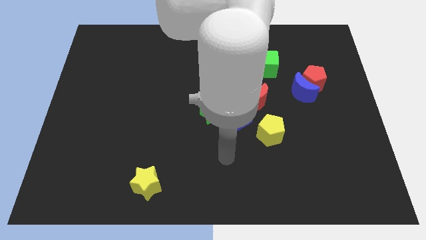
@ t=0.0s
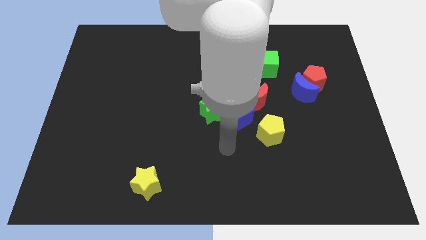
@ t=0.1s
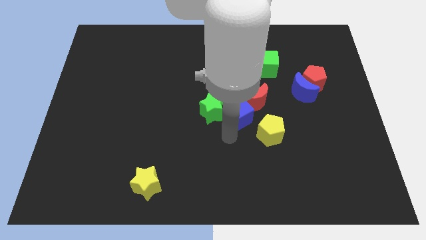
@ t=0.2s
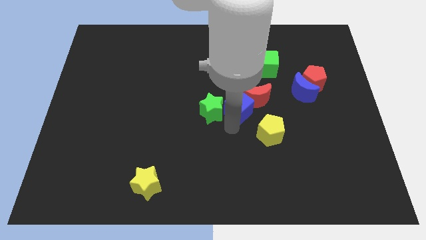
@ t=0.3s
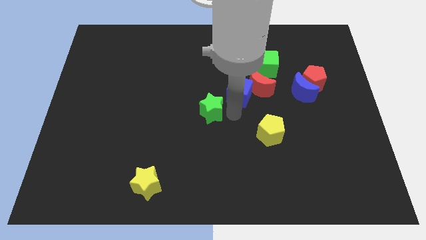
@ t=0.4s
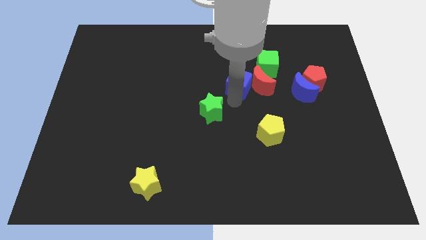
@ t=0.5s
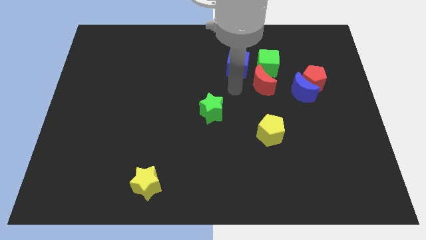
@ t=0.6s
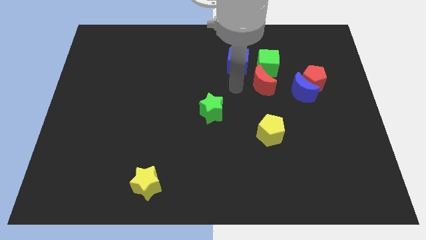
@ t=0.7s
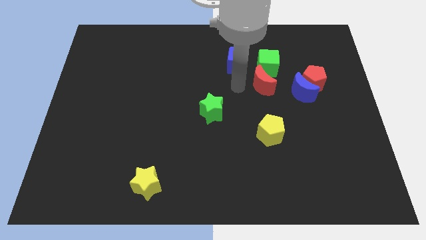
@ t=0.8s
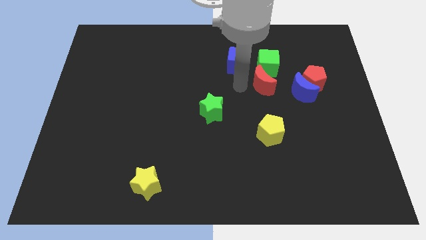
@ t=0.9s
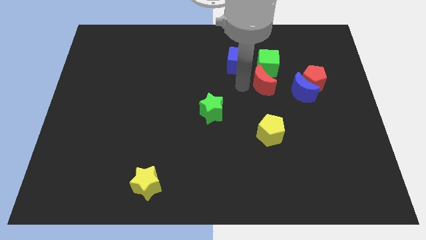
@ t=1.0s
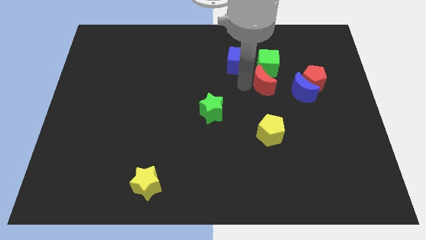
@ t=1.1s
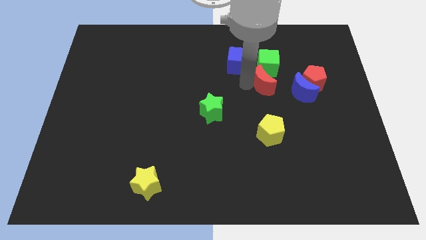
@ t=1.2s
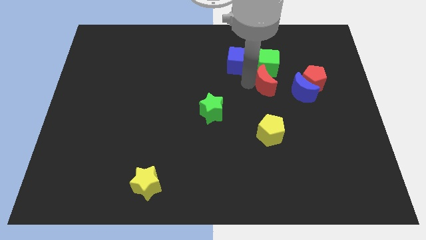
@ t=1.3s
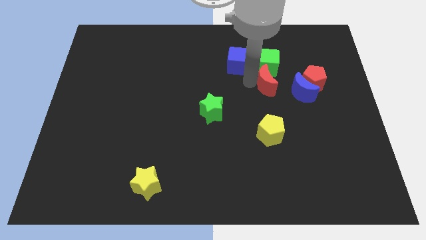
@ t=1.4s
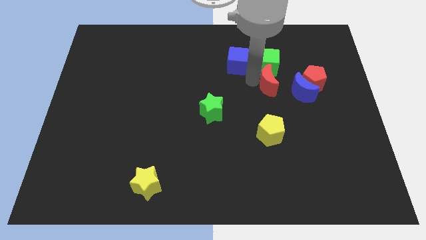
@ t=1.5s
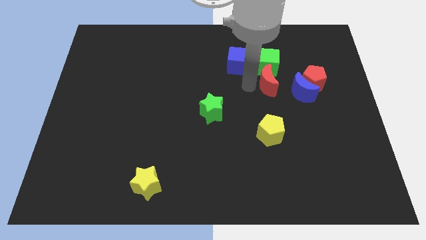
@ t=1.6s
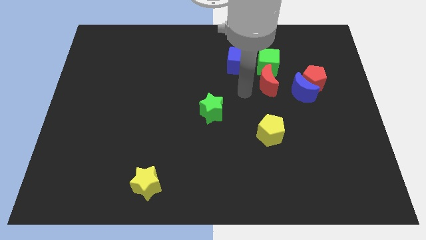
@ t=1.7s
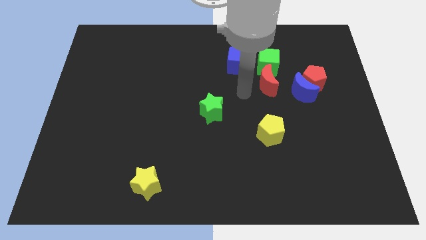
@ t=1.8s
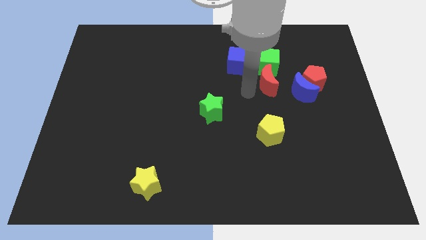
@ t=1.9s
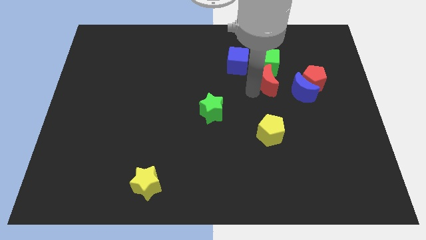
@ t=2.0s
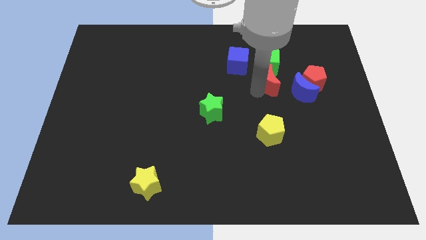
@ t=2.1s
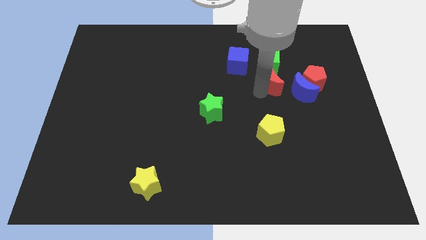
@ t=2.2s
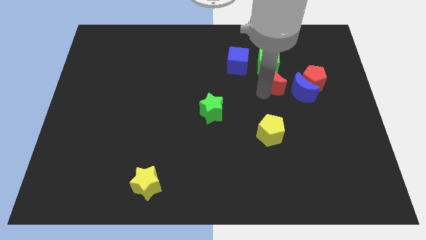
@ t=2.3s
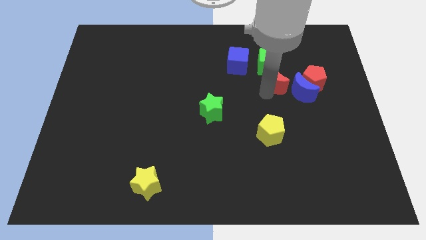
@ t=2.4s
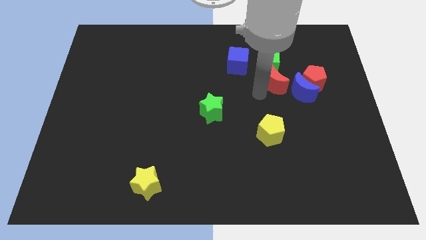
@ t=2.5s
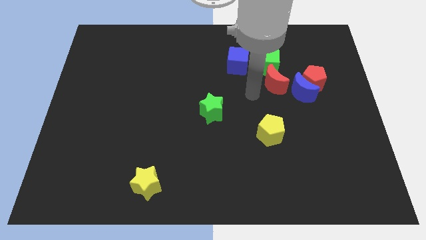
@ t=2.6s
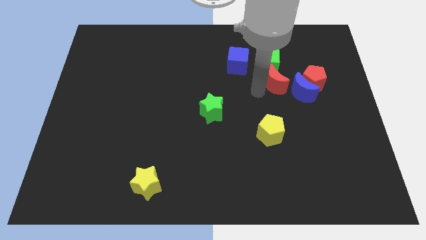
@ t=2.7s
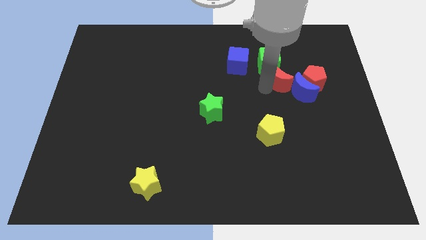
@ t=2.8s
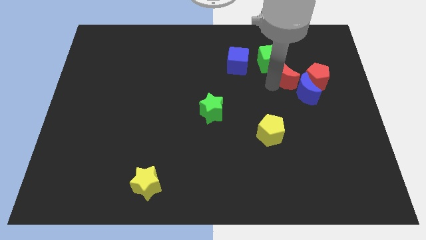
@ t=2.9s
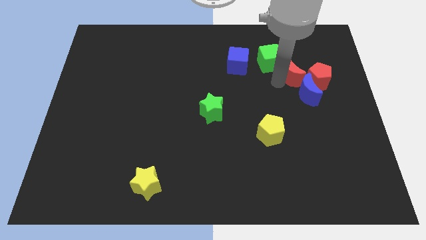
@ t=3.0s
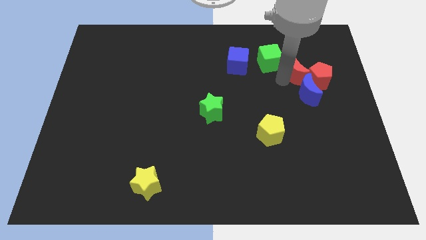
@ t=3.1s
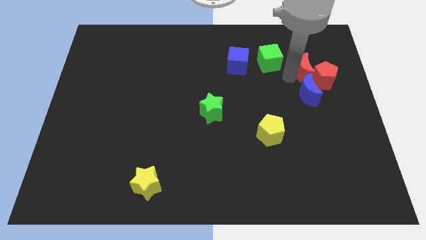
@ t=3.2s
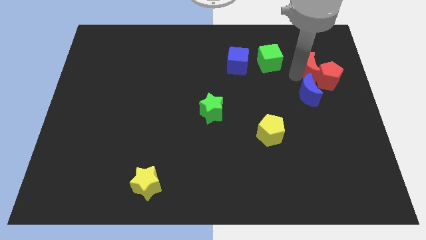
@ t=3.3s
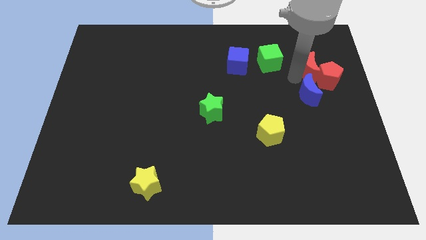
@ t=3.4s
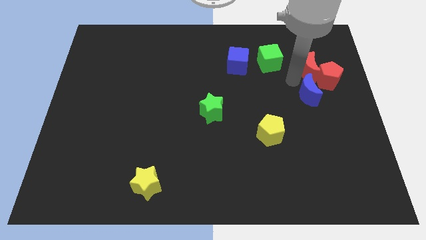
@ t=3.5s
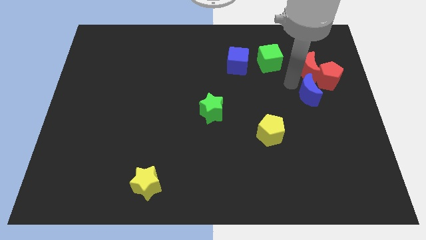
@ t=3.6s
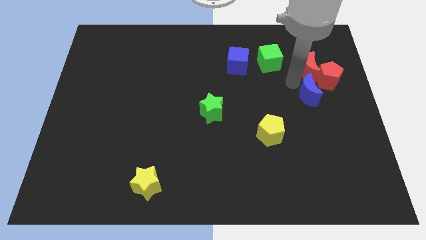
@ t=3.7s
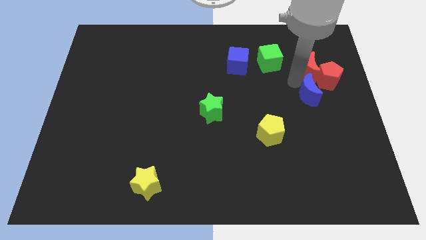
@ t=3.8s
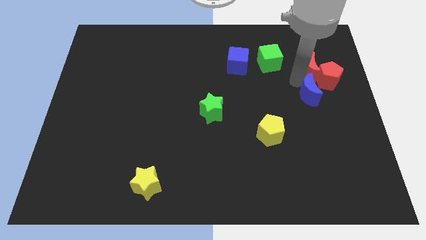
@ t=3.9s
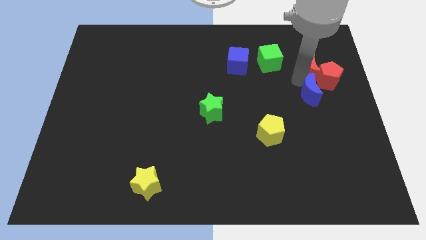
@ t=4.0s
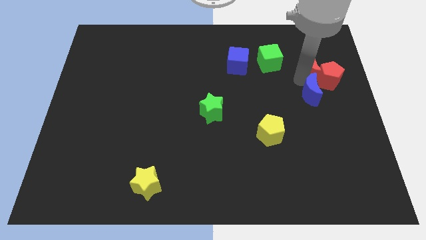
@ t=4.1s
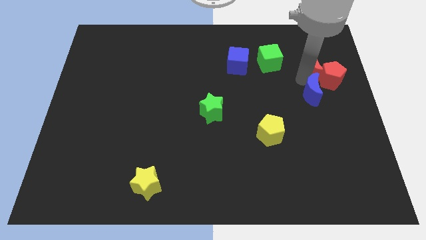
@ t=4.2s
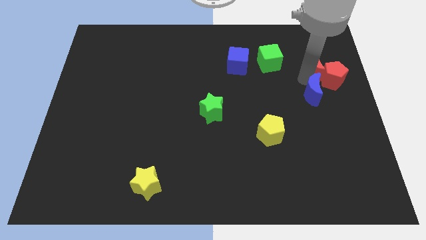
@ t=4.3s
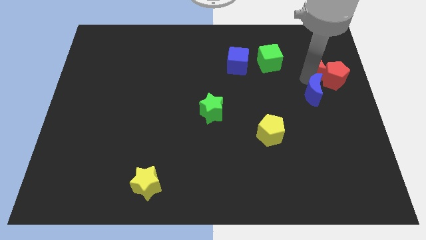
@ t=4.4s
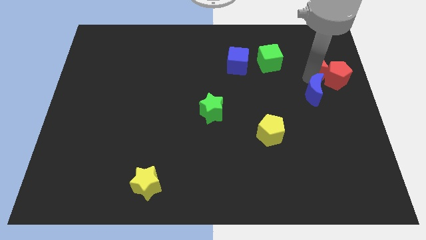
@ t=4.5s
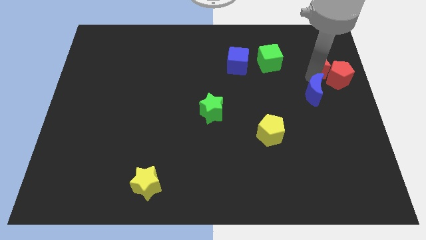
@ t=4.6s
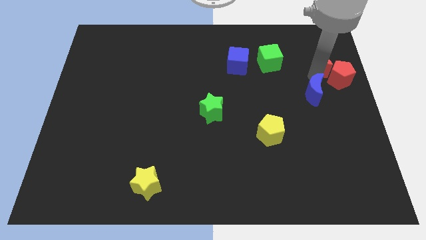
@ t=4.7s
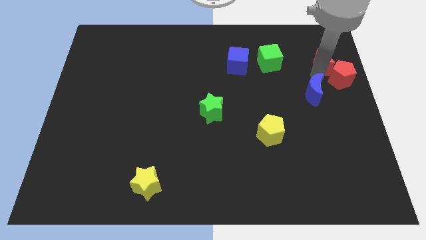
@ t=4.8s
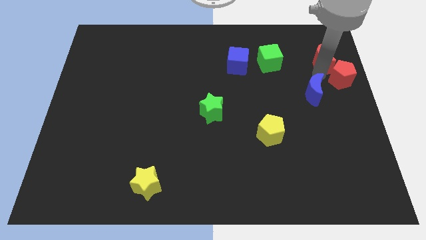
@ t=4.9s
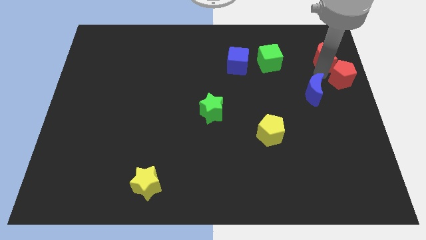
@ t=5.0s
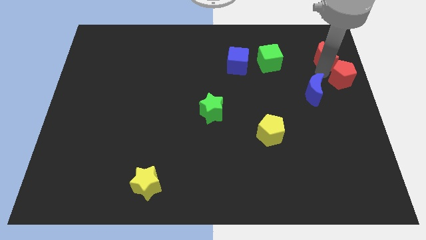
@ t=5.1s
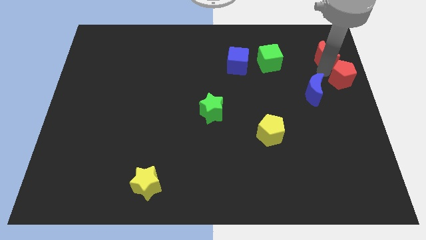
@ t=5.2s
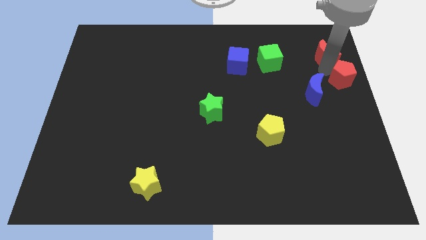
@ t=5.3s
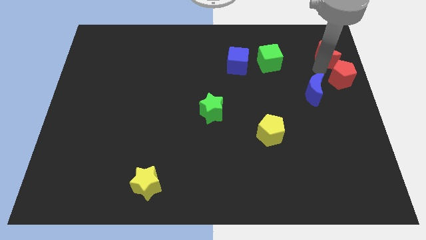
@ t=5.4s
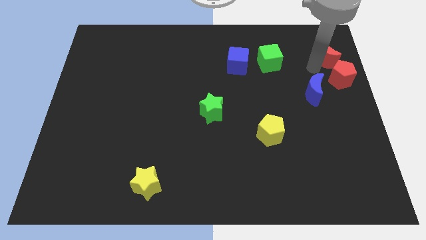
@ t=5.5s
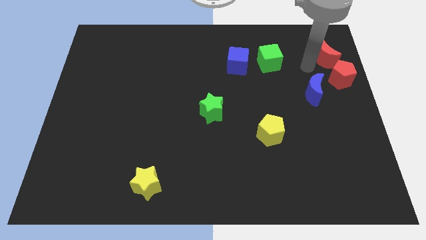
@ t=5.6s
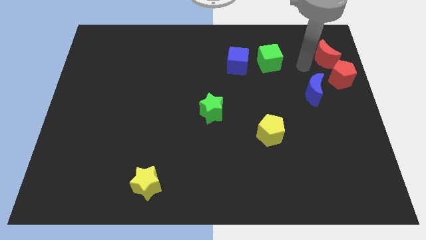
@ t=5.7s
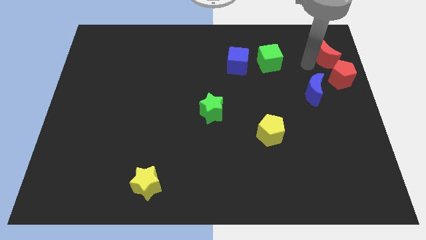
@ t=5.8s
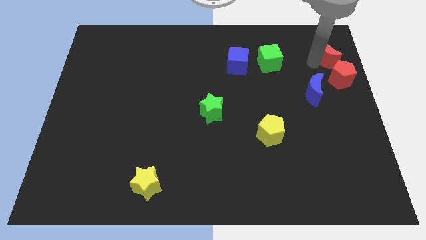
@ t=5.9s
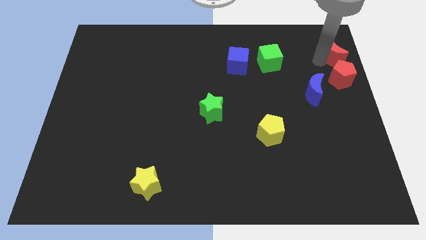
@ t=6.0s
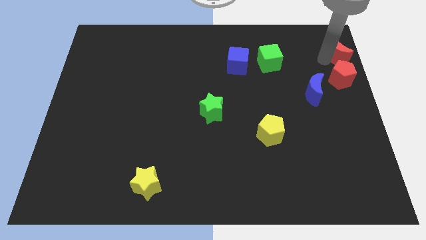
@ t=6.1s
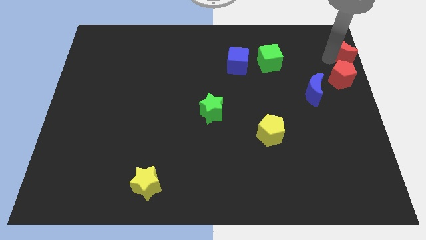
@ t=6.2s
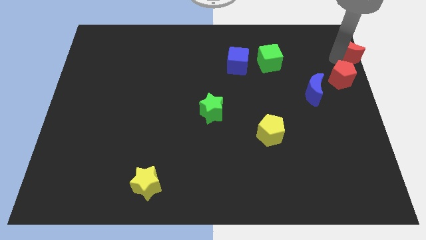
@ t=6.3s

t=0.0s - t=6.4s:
put the red moon to the top right

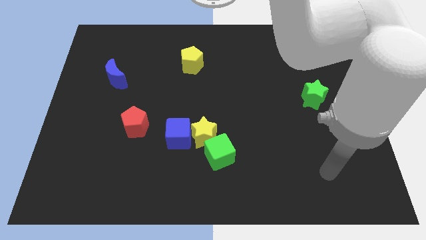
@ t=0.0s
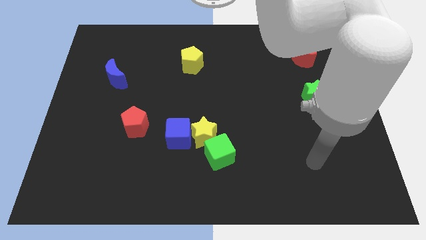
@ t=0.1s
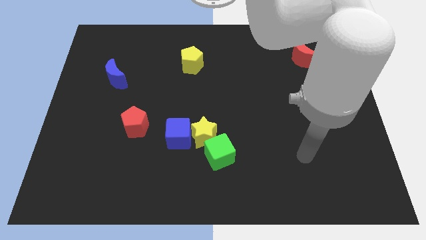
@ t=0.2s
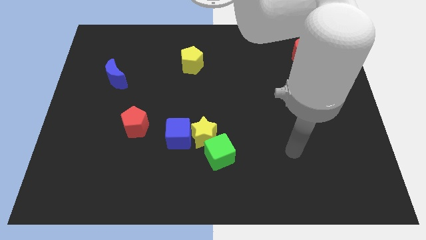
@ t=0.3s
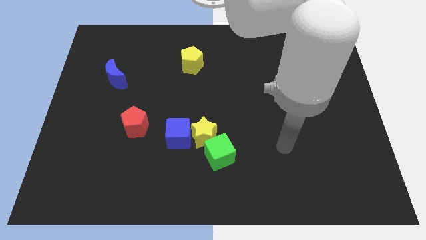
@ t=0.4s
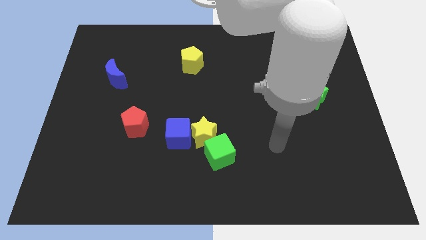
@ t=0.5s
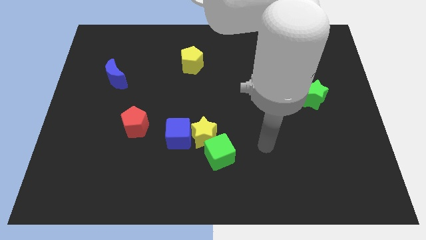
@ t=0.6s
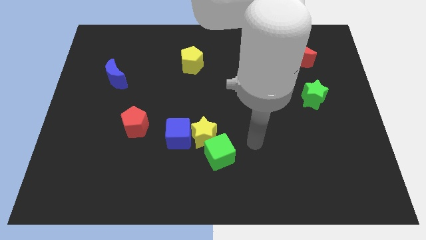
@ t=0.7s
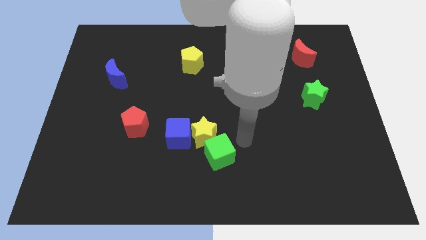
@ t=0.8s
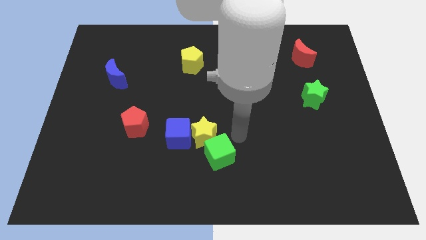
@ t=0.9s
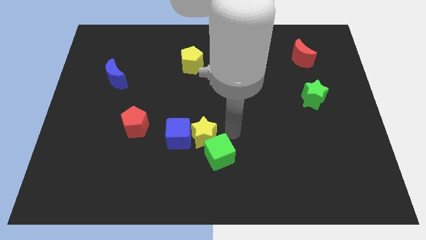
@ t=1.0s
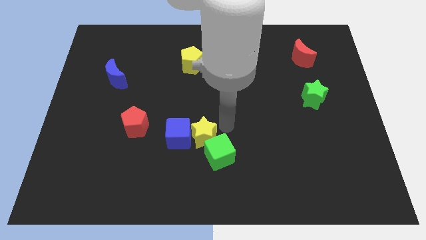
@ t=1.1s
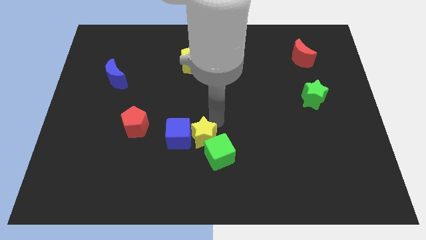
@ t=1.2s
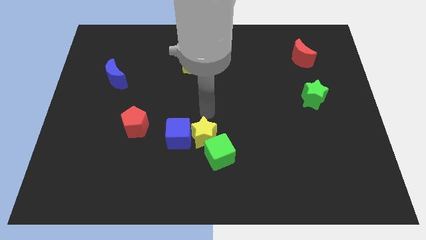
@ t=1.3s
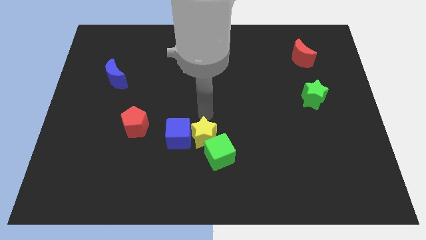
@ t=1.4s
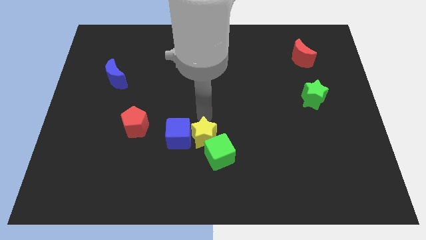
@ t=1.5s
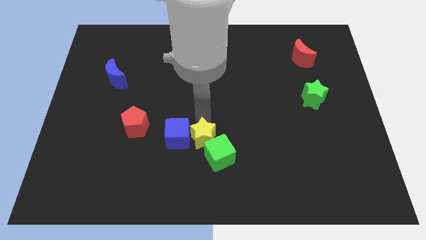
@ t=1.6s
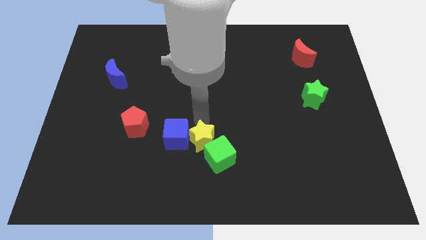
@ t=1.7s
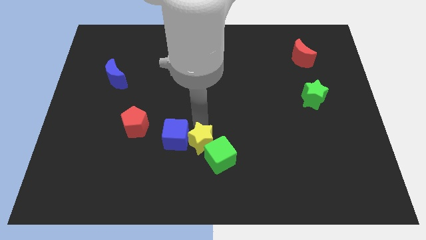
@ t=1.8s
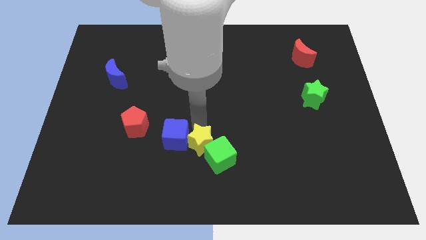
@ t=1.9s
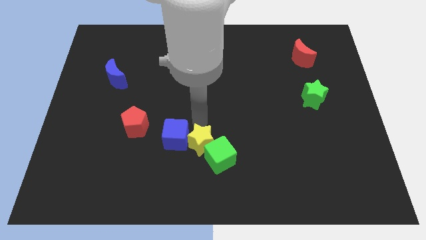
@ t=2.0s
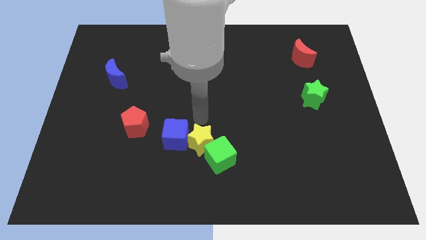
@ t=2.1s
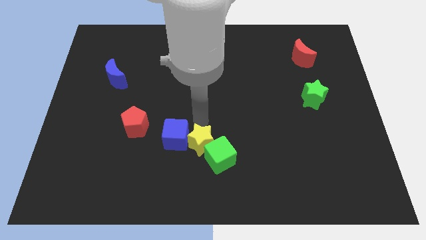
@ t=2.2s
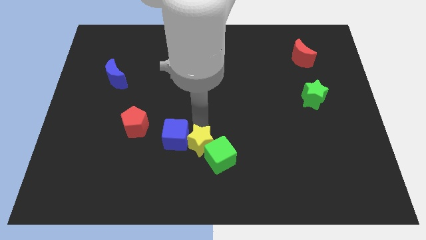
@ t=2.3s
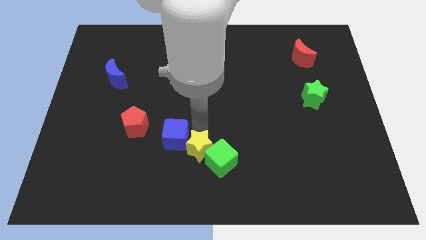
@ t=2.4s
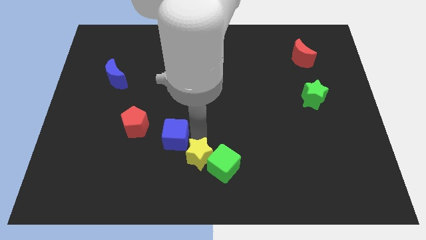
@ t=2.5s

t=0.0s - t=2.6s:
push the yellow star to the bottom side
